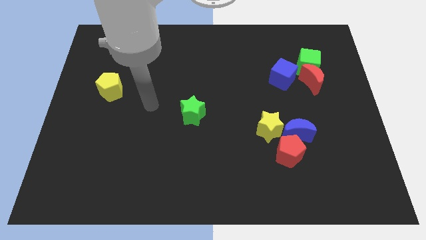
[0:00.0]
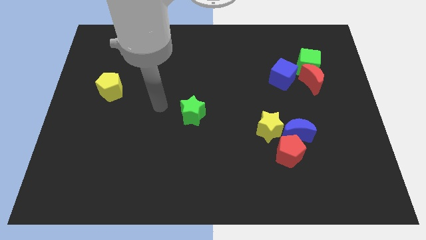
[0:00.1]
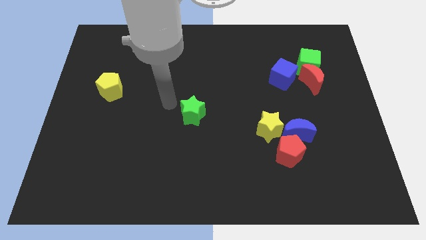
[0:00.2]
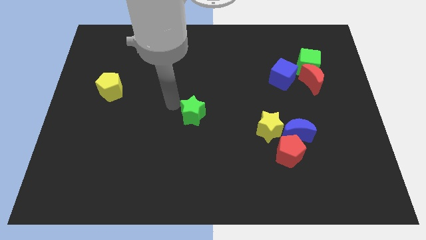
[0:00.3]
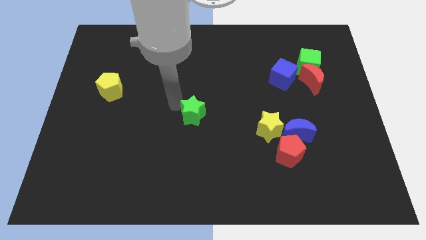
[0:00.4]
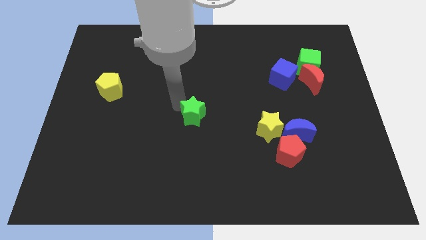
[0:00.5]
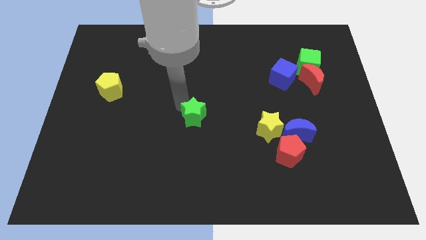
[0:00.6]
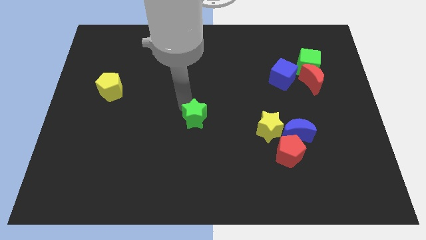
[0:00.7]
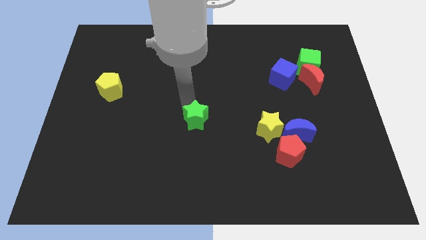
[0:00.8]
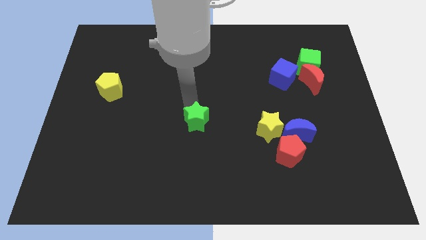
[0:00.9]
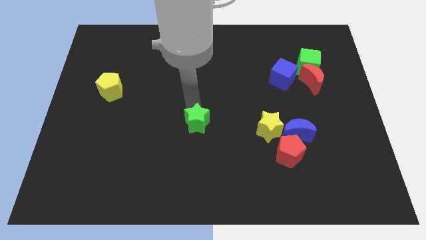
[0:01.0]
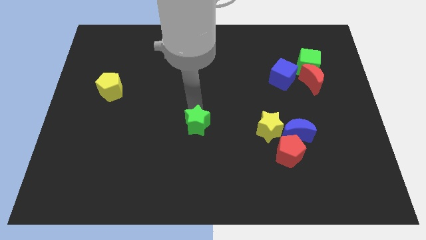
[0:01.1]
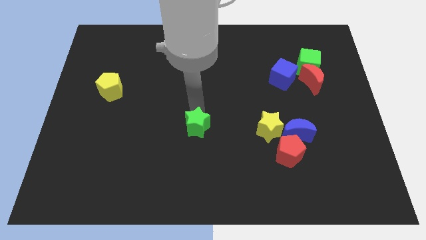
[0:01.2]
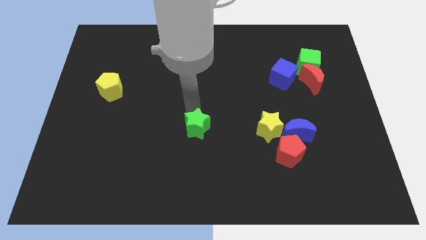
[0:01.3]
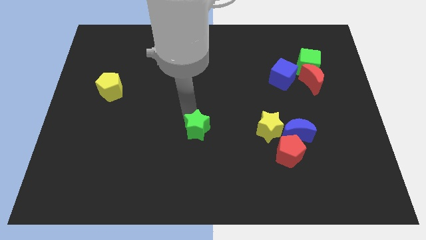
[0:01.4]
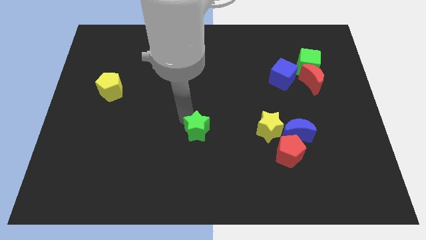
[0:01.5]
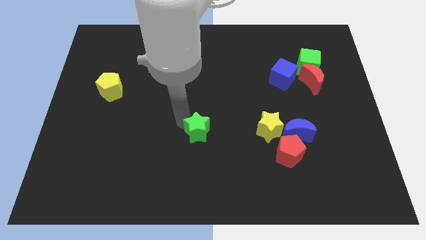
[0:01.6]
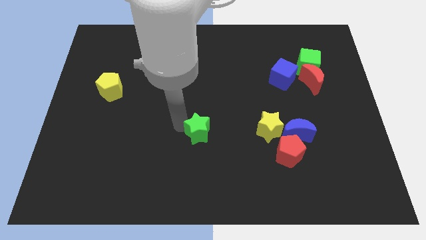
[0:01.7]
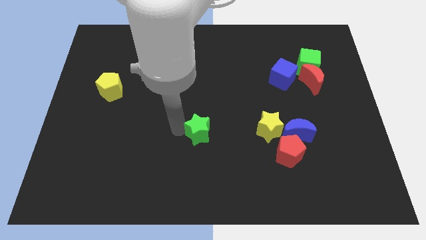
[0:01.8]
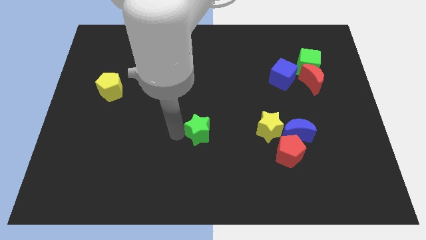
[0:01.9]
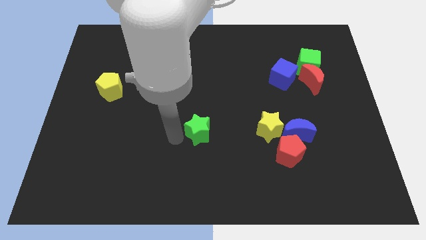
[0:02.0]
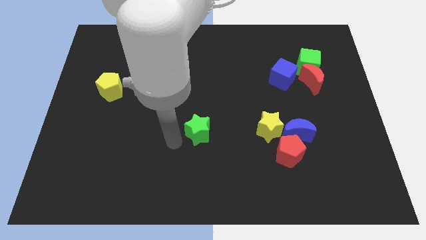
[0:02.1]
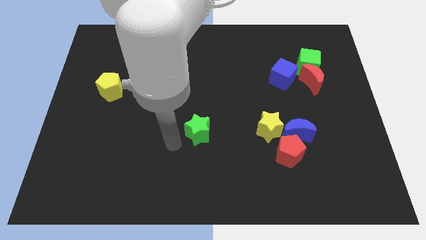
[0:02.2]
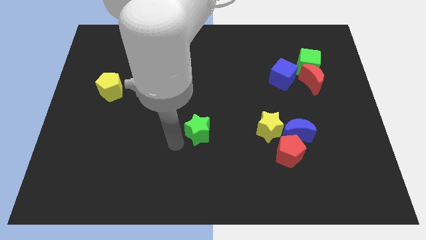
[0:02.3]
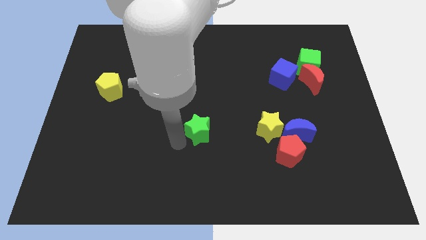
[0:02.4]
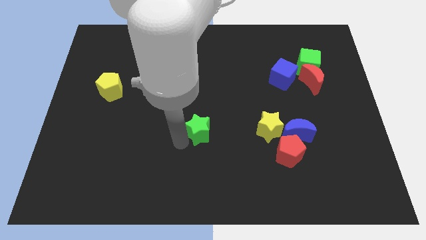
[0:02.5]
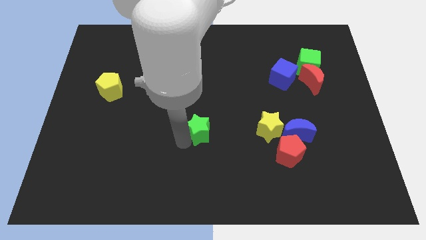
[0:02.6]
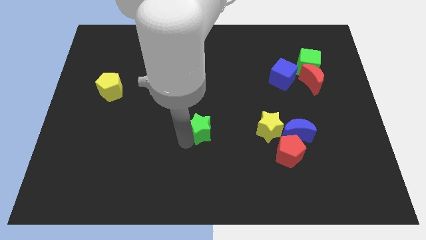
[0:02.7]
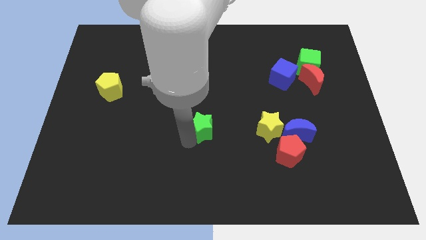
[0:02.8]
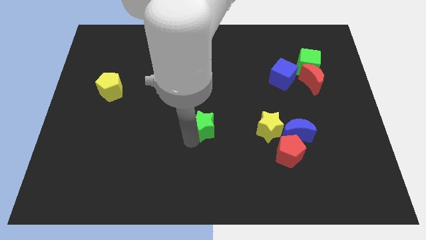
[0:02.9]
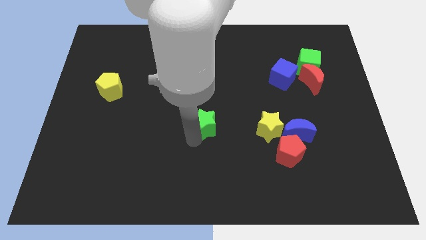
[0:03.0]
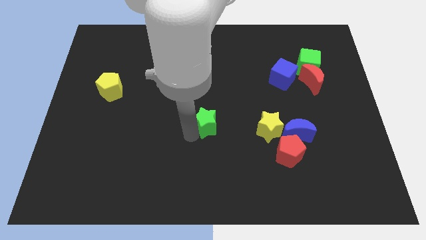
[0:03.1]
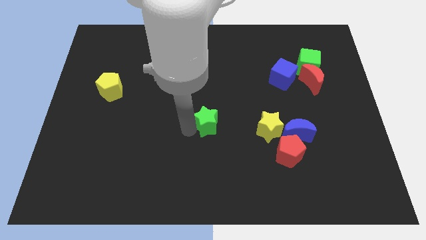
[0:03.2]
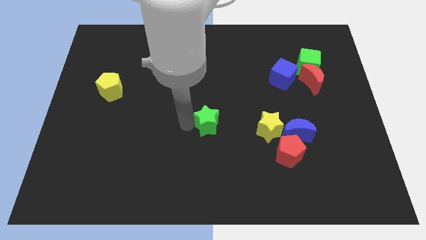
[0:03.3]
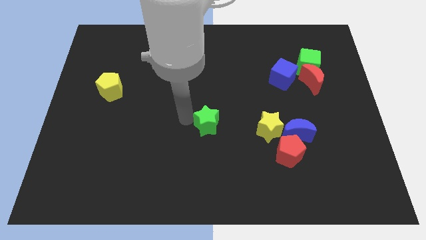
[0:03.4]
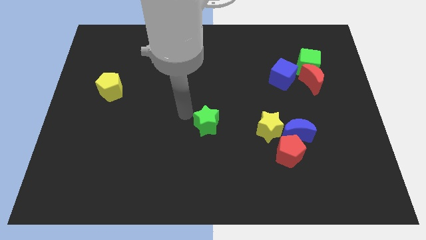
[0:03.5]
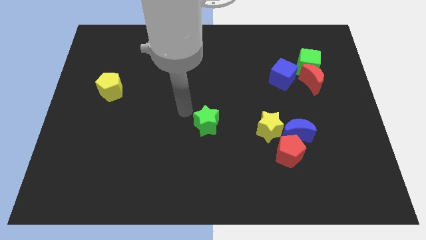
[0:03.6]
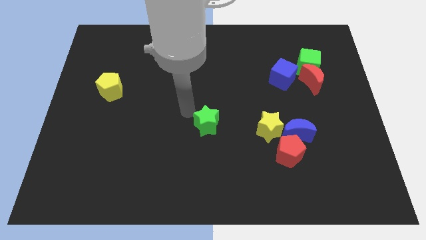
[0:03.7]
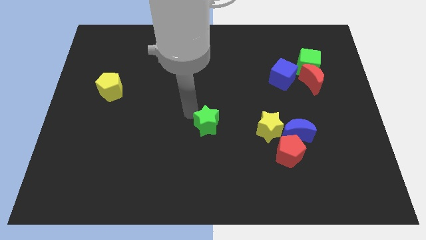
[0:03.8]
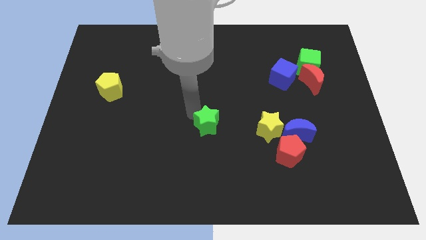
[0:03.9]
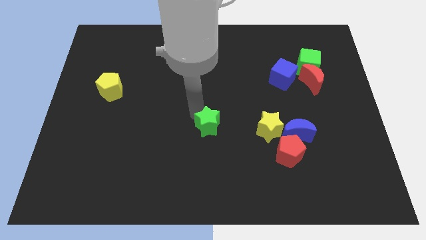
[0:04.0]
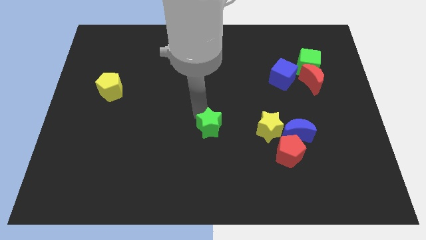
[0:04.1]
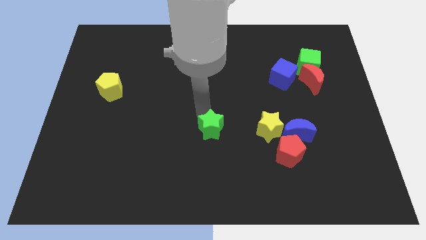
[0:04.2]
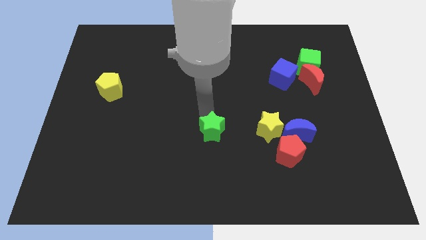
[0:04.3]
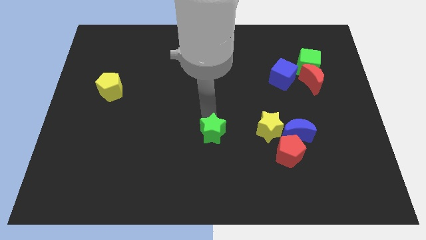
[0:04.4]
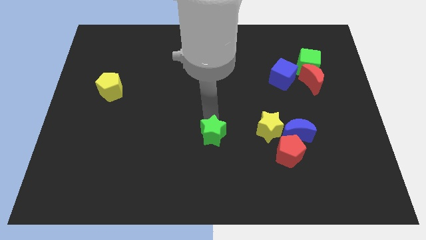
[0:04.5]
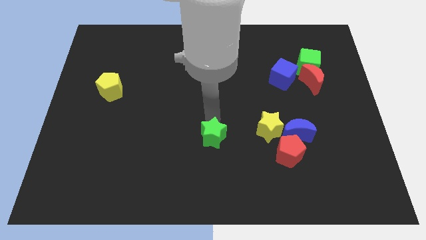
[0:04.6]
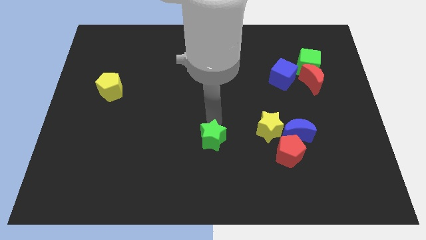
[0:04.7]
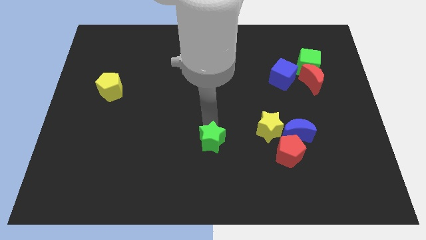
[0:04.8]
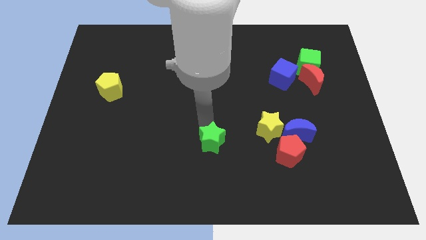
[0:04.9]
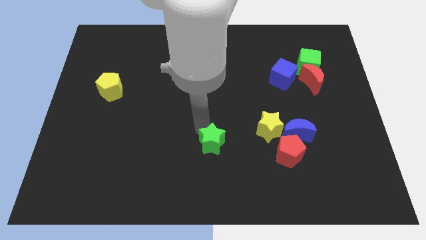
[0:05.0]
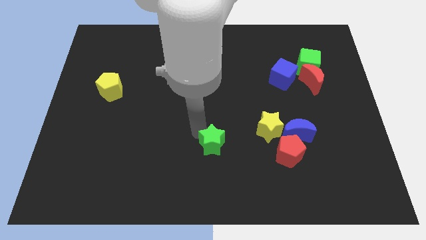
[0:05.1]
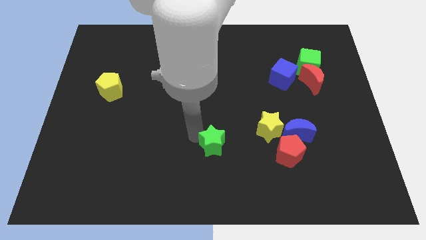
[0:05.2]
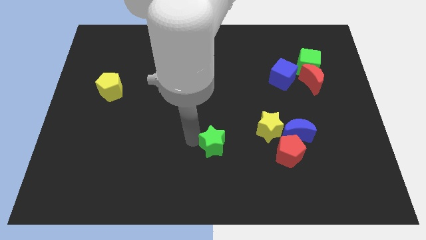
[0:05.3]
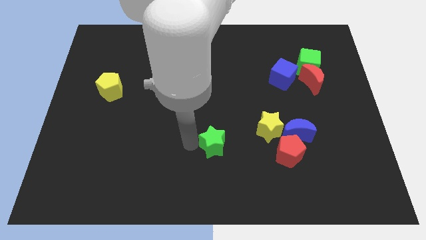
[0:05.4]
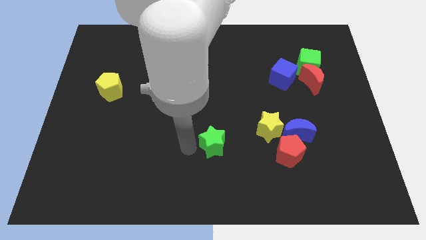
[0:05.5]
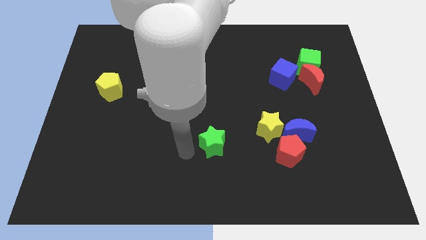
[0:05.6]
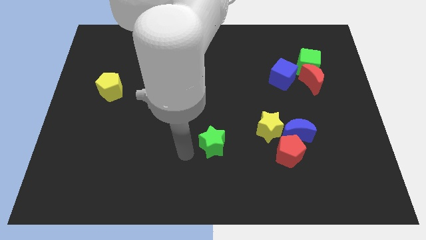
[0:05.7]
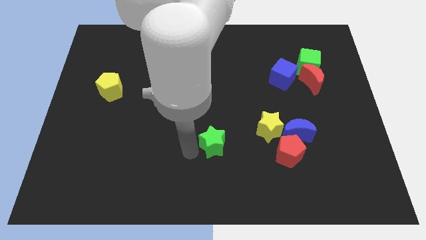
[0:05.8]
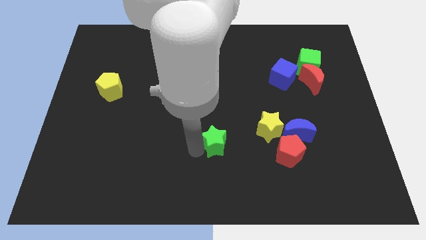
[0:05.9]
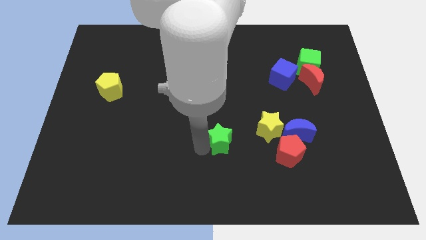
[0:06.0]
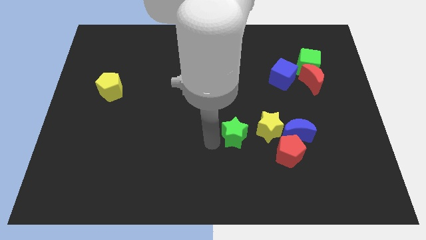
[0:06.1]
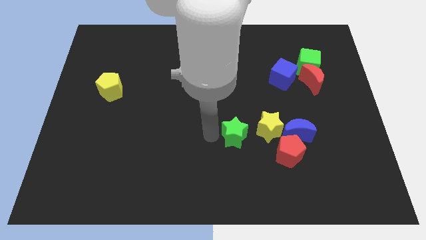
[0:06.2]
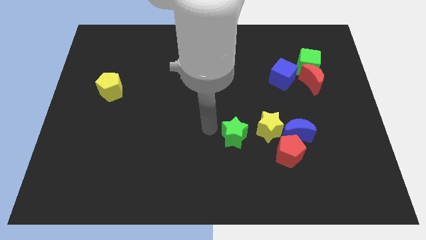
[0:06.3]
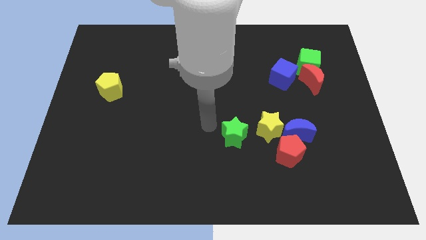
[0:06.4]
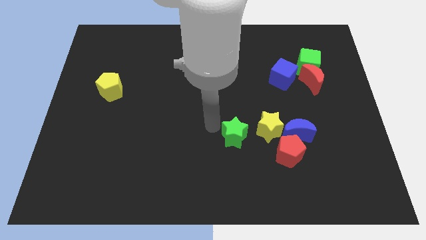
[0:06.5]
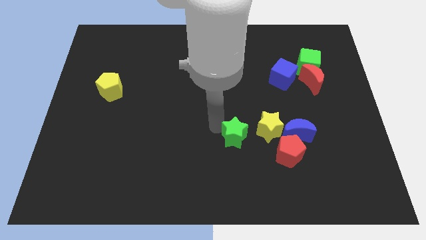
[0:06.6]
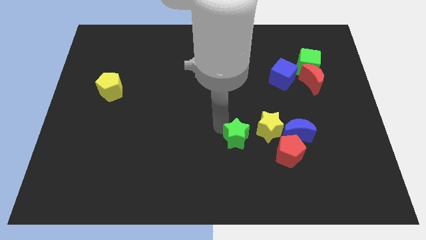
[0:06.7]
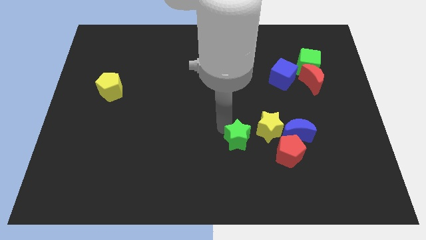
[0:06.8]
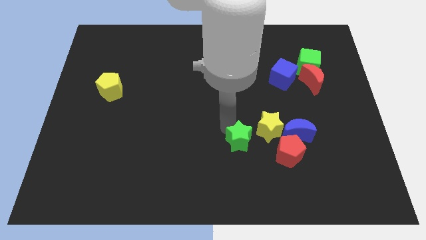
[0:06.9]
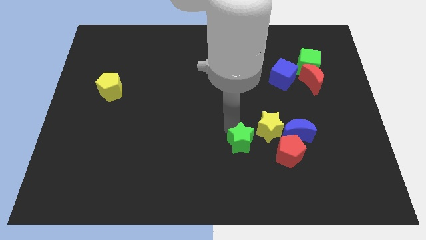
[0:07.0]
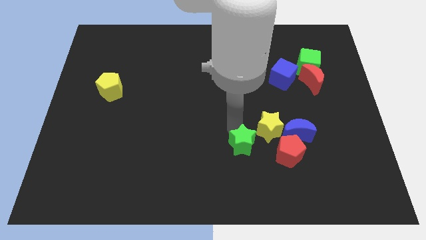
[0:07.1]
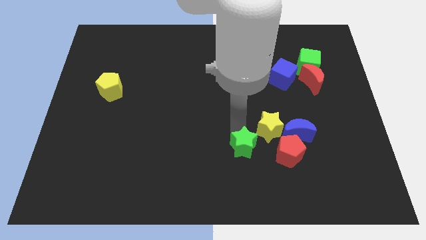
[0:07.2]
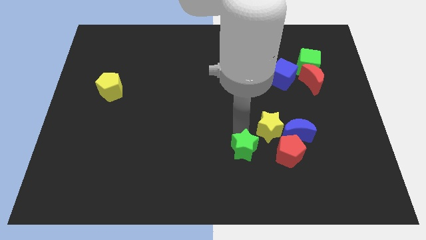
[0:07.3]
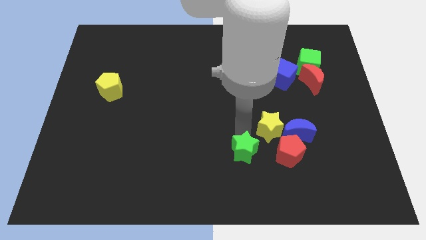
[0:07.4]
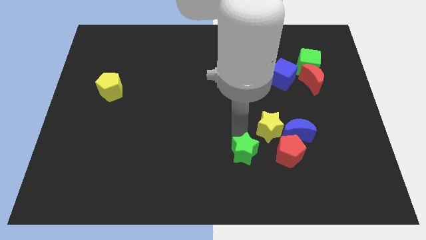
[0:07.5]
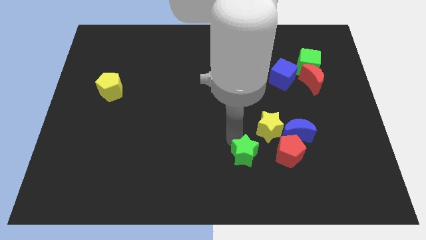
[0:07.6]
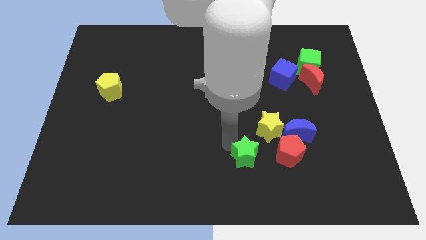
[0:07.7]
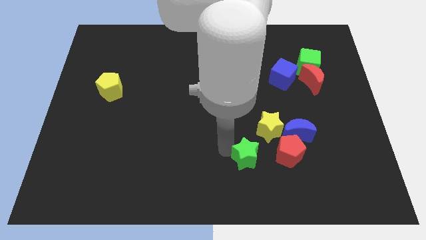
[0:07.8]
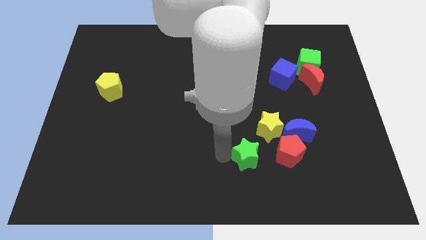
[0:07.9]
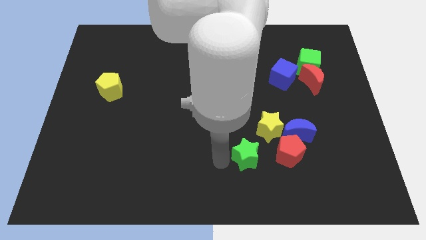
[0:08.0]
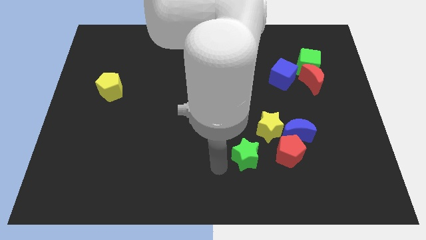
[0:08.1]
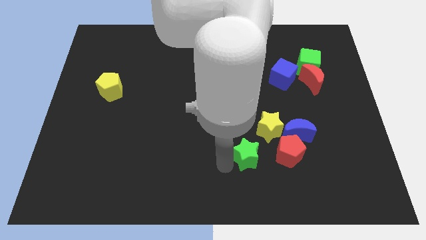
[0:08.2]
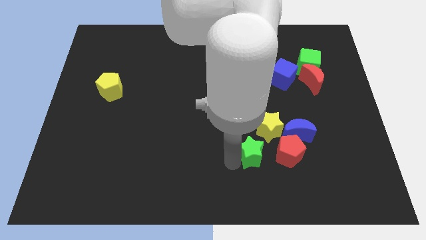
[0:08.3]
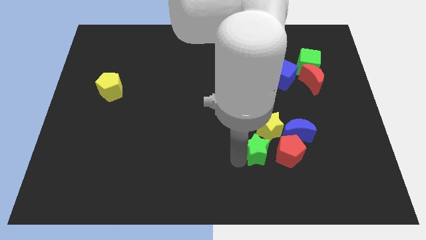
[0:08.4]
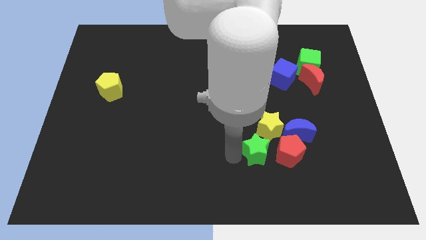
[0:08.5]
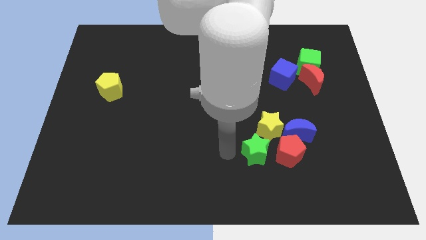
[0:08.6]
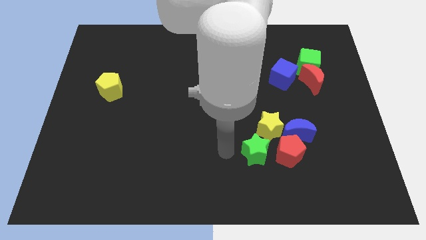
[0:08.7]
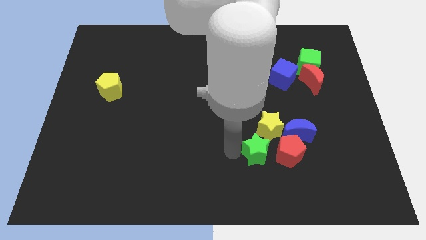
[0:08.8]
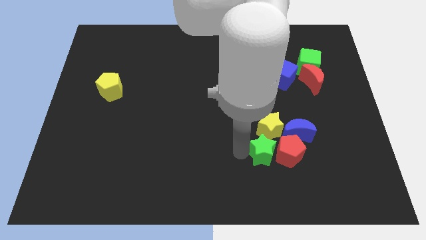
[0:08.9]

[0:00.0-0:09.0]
push the green star towards the red pentagon
